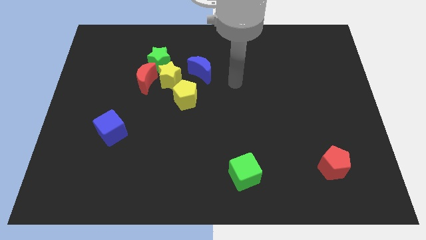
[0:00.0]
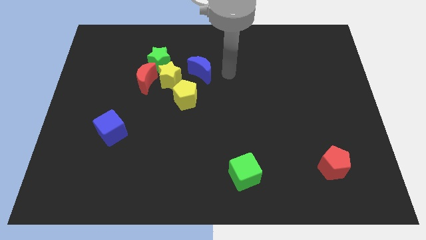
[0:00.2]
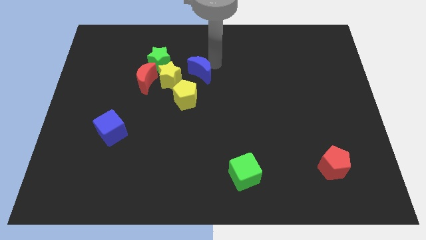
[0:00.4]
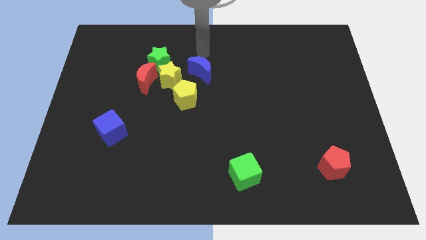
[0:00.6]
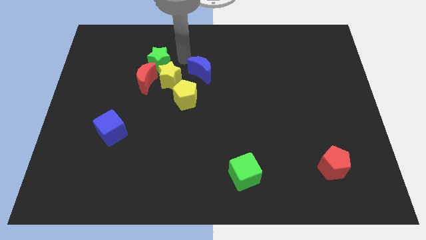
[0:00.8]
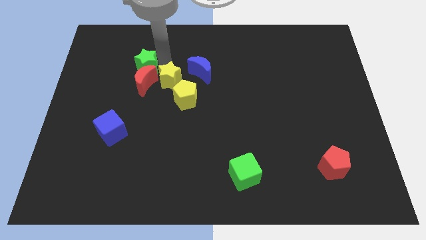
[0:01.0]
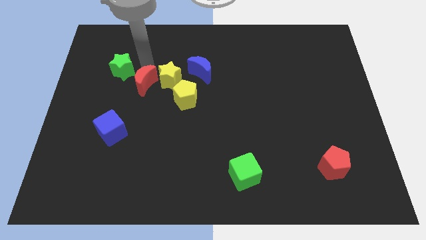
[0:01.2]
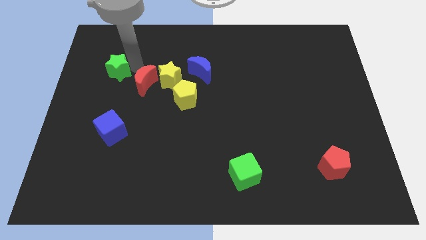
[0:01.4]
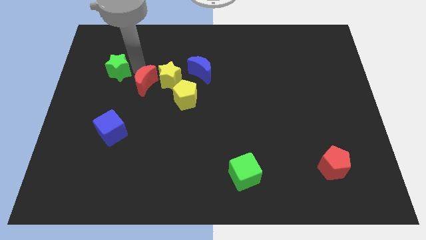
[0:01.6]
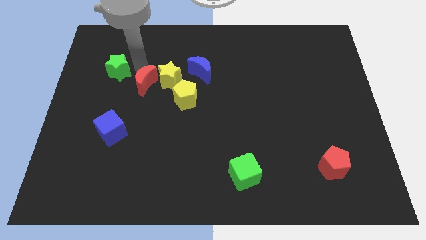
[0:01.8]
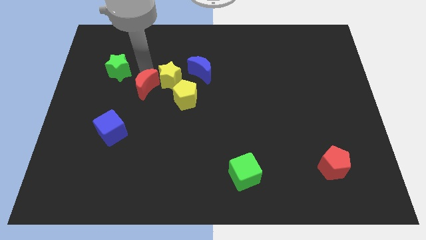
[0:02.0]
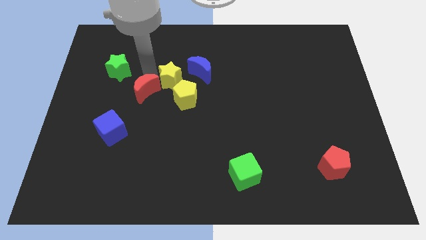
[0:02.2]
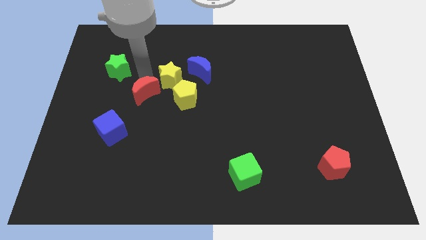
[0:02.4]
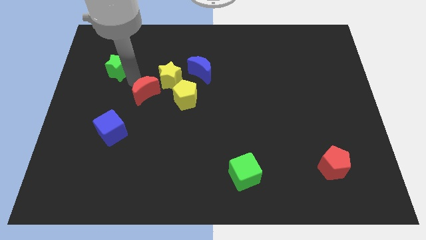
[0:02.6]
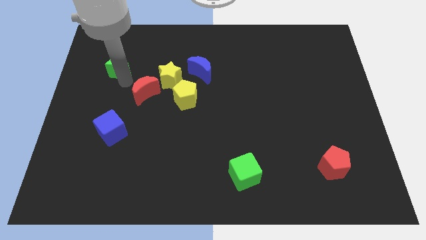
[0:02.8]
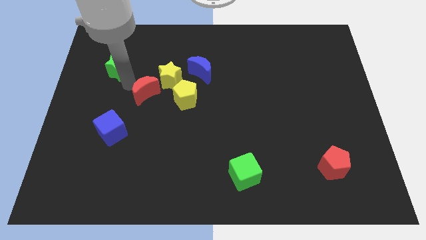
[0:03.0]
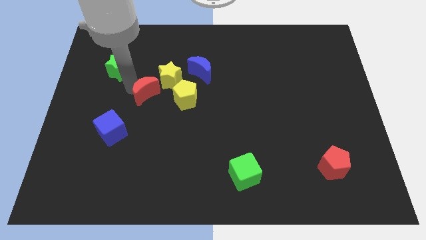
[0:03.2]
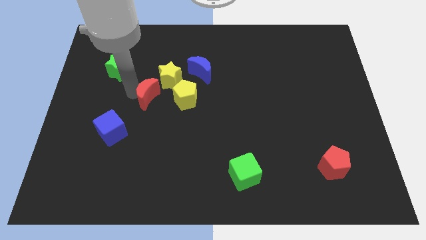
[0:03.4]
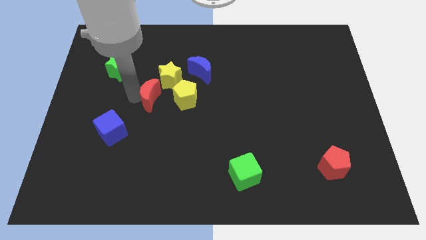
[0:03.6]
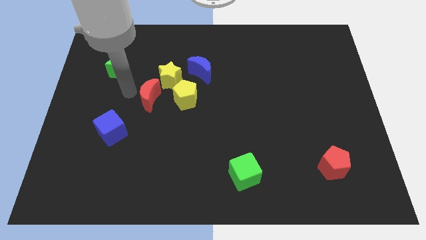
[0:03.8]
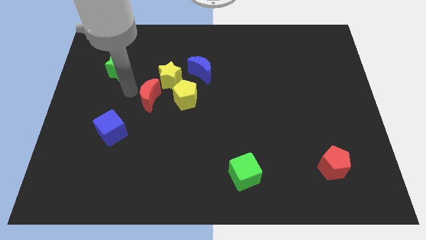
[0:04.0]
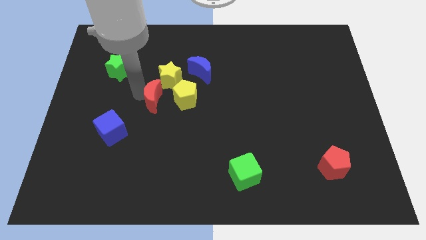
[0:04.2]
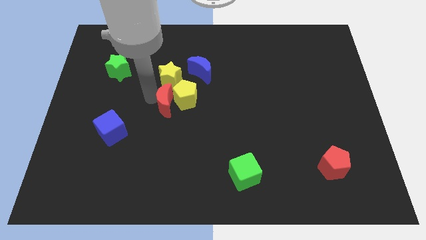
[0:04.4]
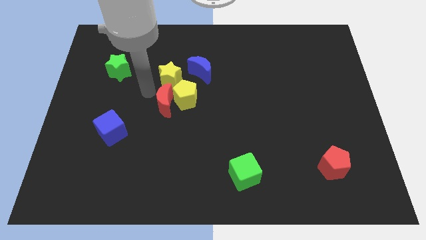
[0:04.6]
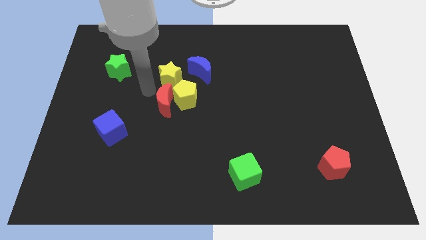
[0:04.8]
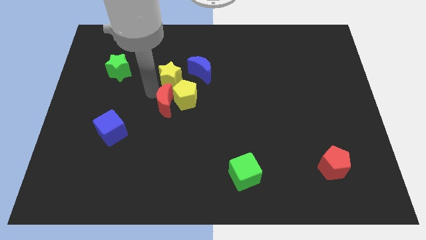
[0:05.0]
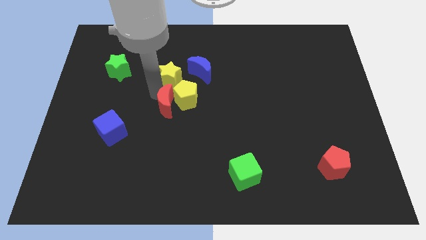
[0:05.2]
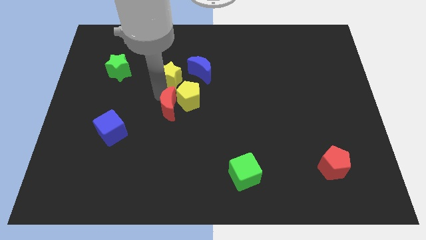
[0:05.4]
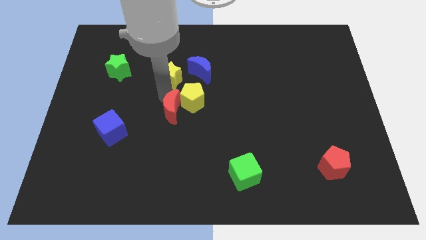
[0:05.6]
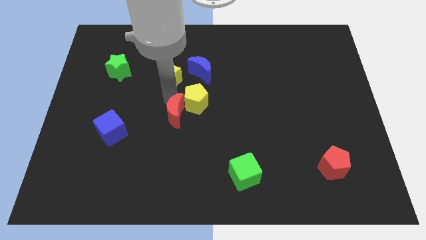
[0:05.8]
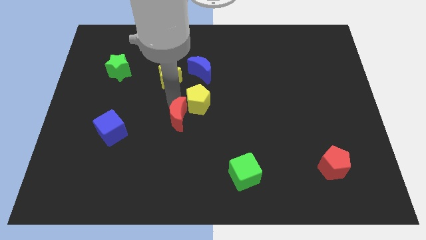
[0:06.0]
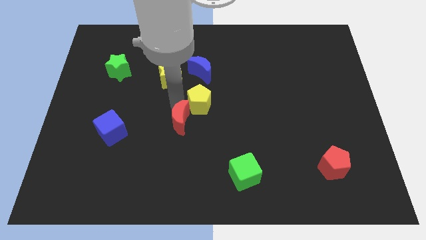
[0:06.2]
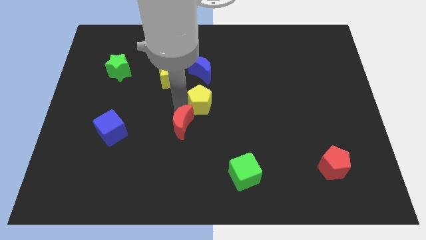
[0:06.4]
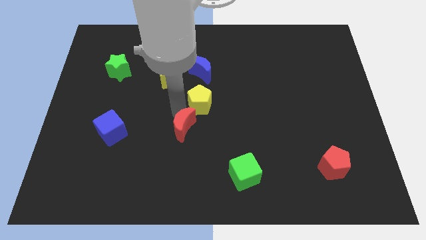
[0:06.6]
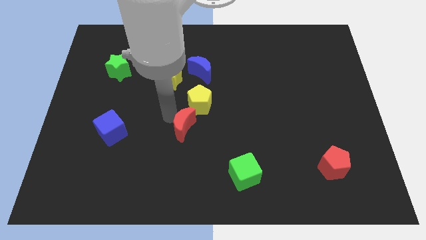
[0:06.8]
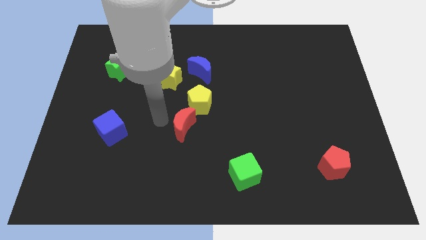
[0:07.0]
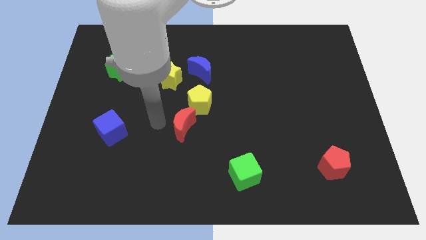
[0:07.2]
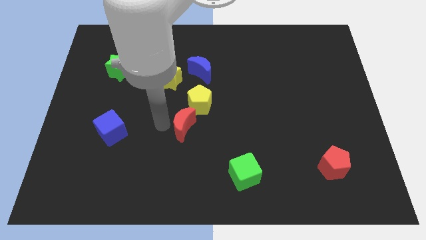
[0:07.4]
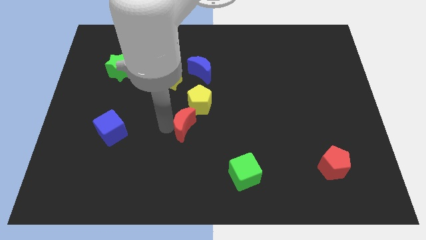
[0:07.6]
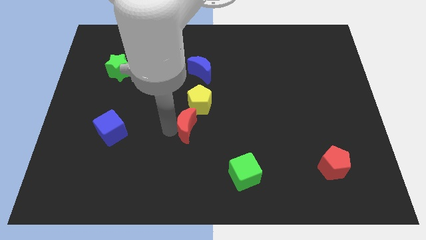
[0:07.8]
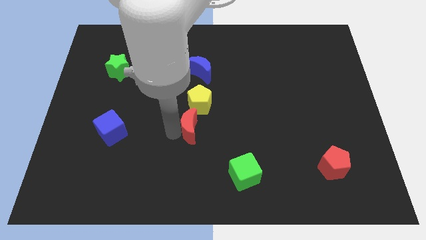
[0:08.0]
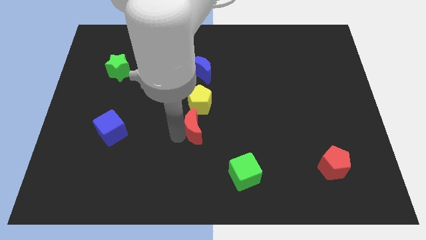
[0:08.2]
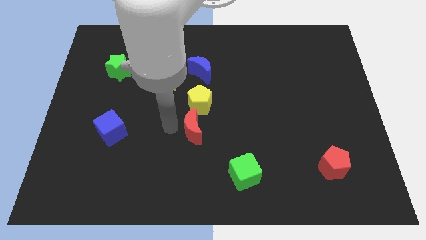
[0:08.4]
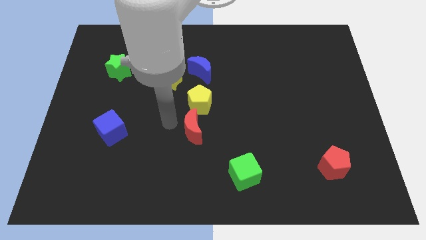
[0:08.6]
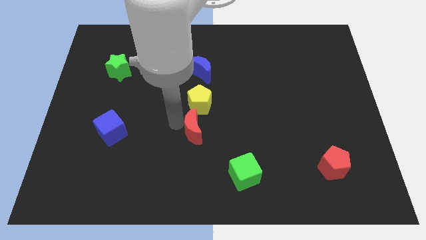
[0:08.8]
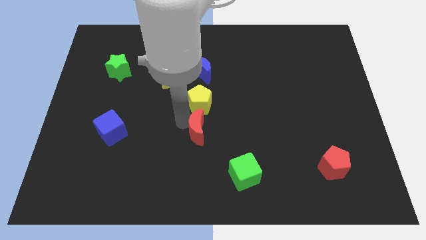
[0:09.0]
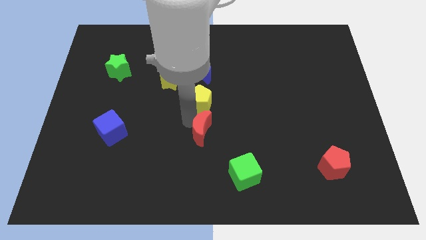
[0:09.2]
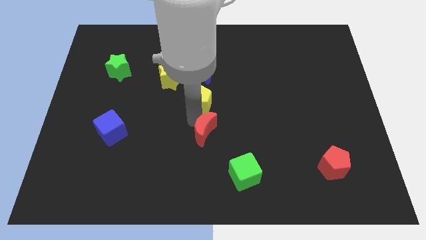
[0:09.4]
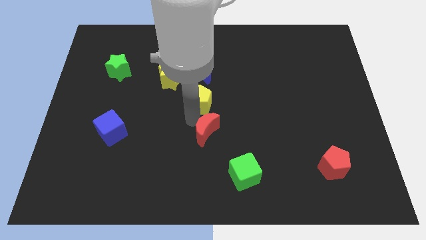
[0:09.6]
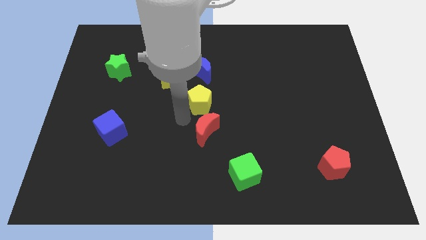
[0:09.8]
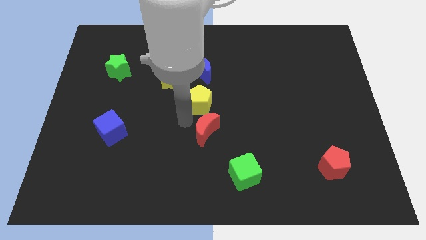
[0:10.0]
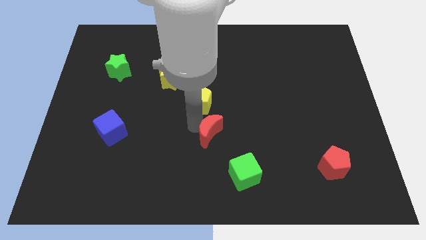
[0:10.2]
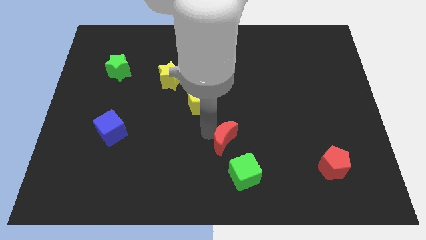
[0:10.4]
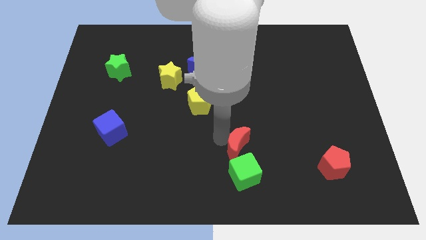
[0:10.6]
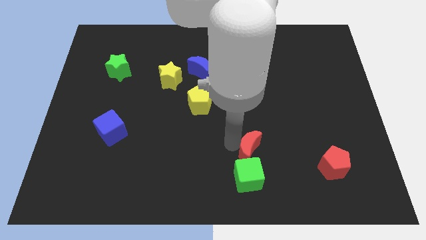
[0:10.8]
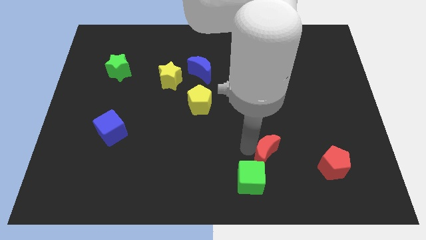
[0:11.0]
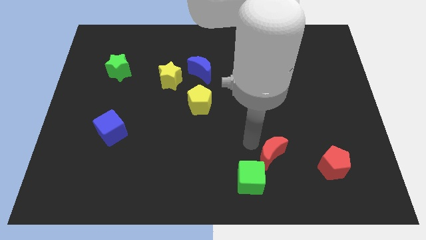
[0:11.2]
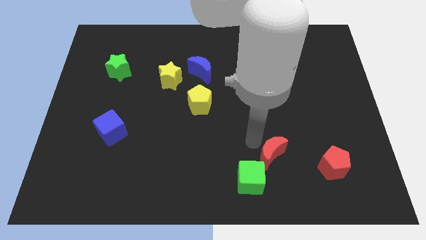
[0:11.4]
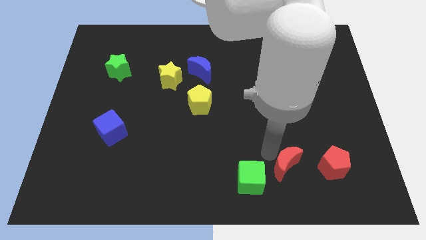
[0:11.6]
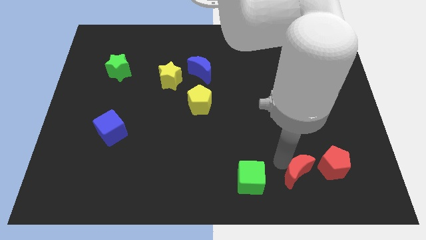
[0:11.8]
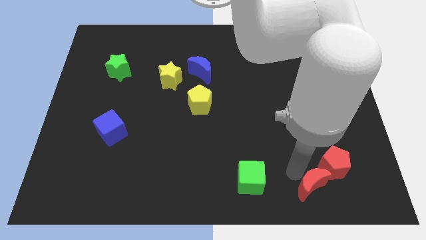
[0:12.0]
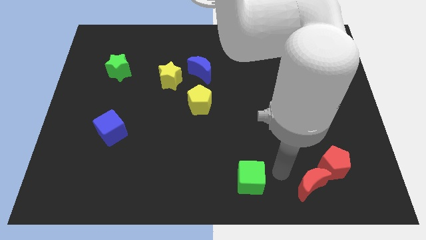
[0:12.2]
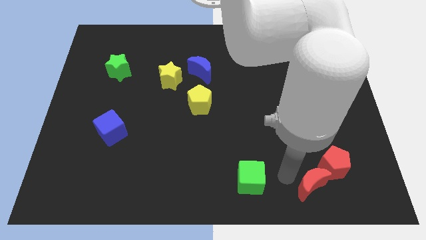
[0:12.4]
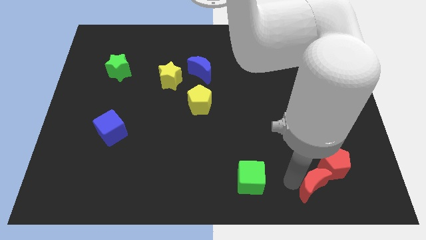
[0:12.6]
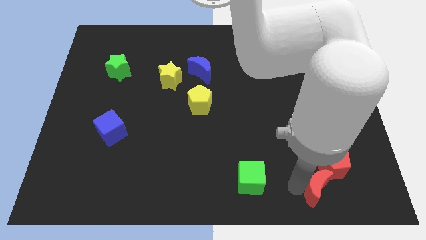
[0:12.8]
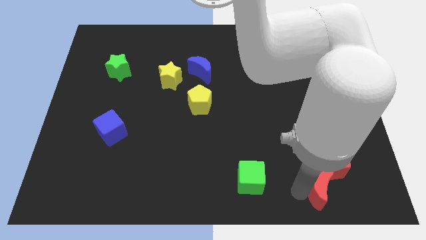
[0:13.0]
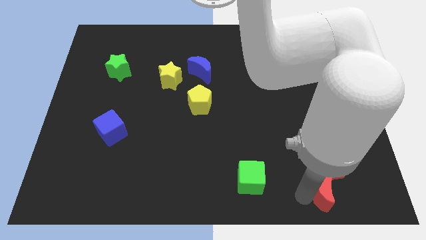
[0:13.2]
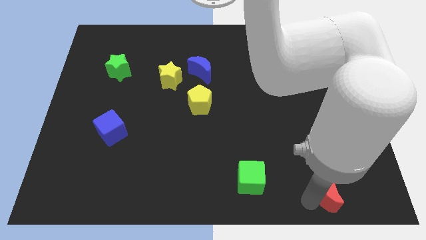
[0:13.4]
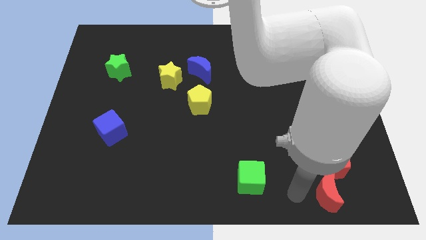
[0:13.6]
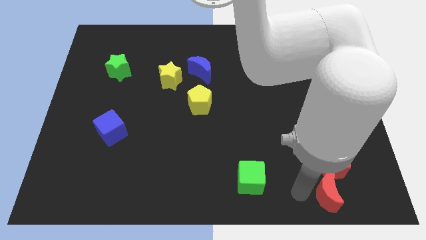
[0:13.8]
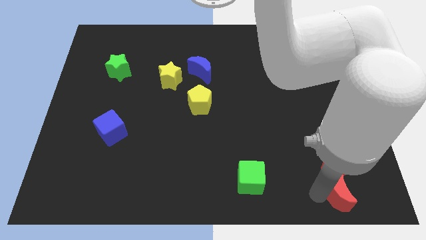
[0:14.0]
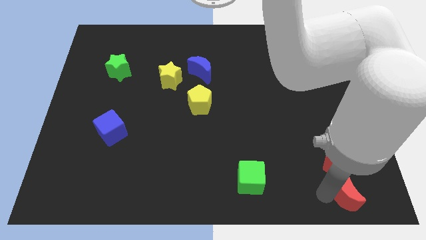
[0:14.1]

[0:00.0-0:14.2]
push the red moon to the lower right corner
